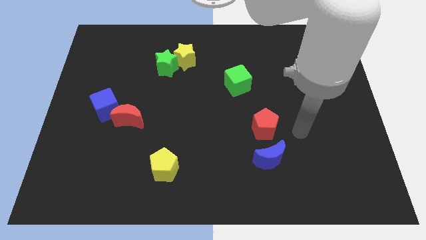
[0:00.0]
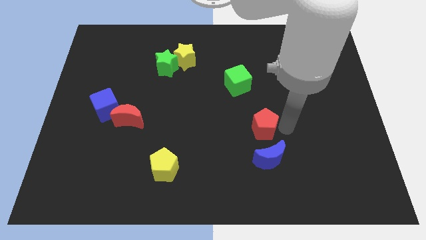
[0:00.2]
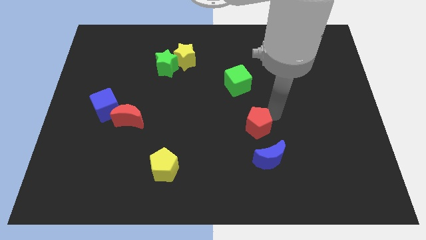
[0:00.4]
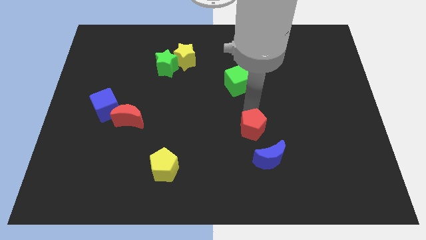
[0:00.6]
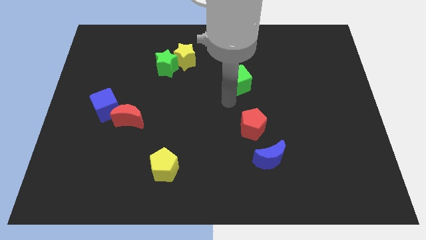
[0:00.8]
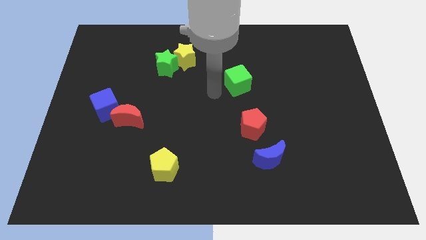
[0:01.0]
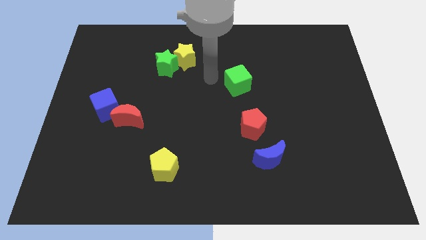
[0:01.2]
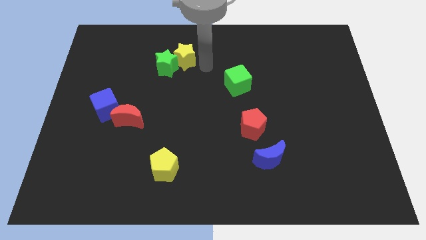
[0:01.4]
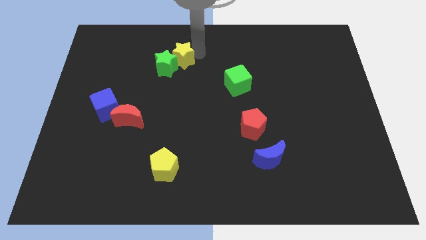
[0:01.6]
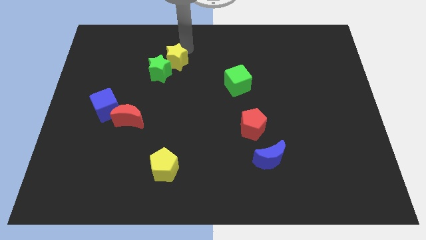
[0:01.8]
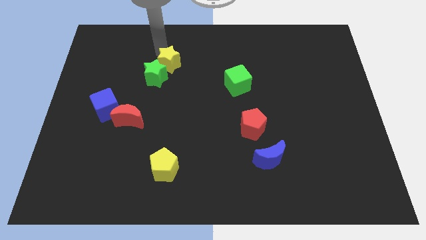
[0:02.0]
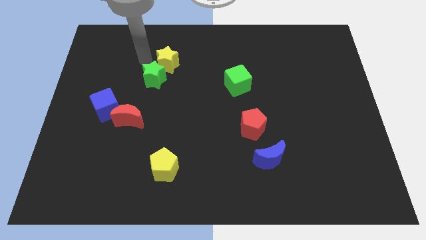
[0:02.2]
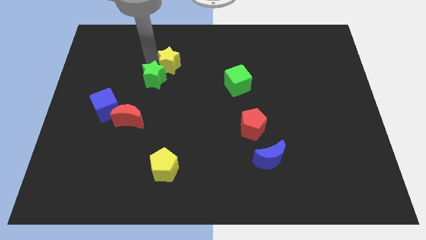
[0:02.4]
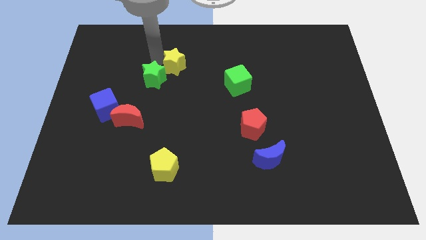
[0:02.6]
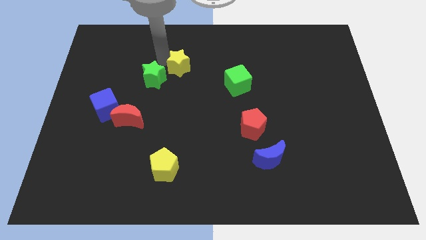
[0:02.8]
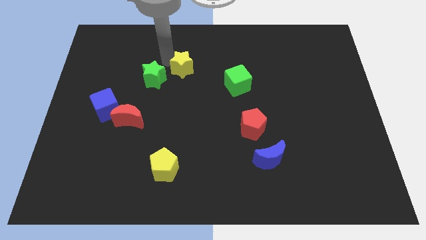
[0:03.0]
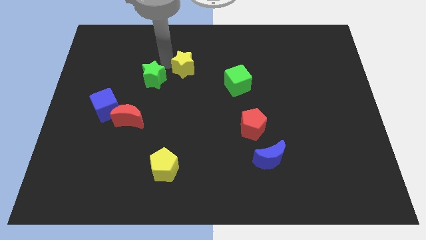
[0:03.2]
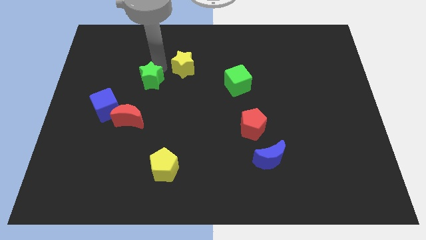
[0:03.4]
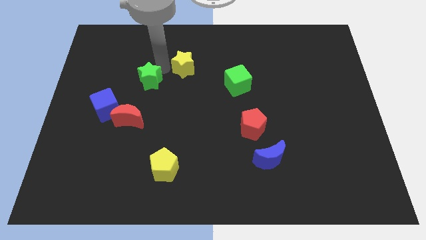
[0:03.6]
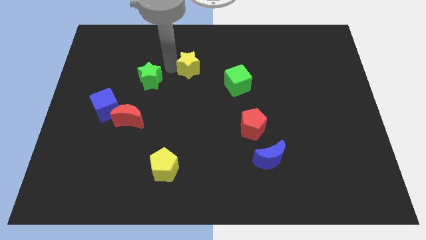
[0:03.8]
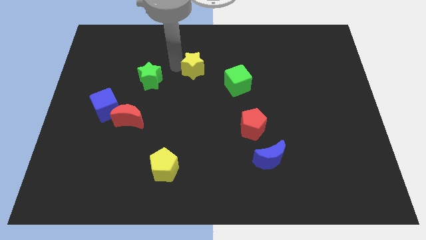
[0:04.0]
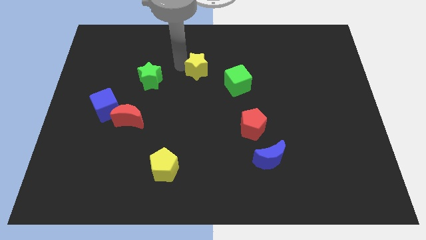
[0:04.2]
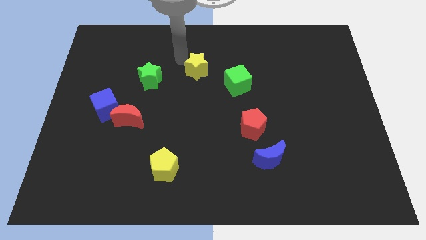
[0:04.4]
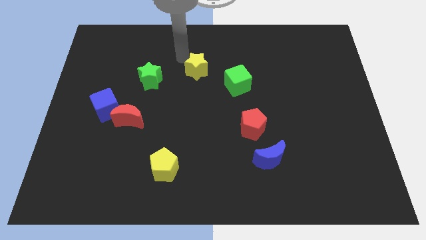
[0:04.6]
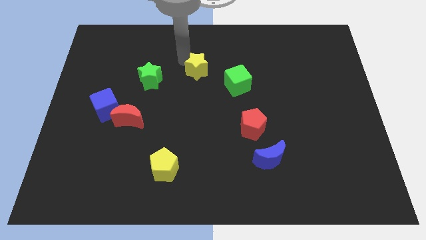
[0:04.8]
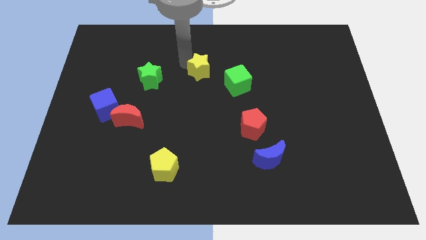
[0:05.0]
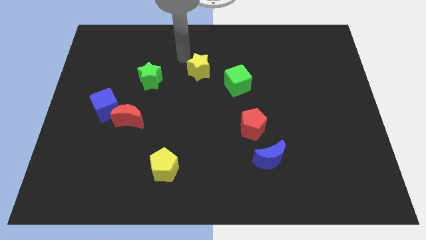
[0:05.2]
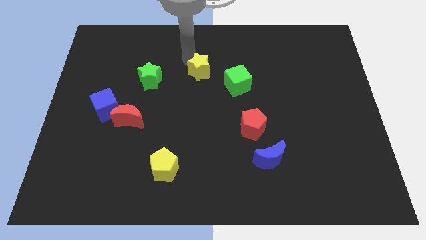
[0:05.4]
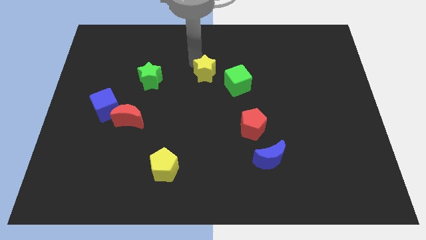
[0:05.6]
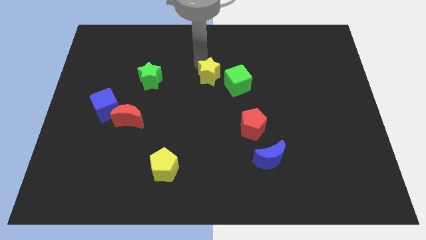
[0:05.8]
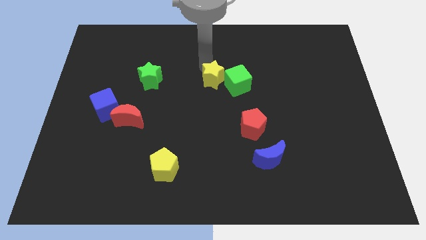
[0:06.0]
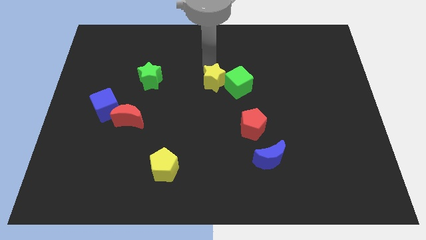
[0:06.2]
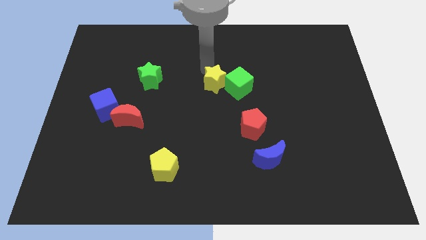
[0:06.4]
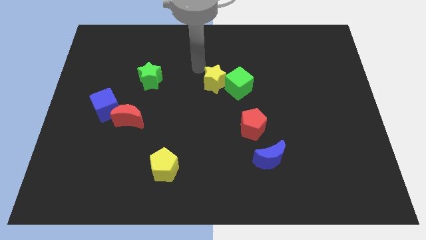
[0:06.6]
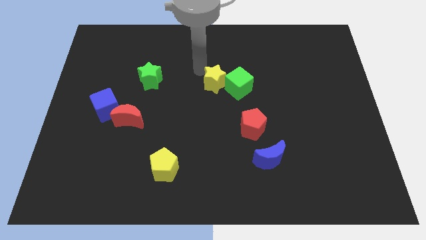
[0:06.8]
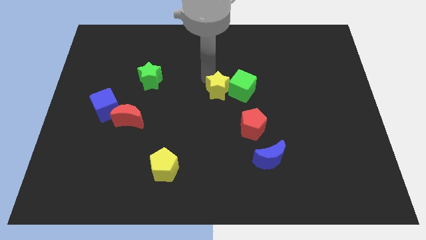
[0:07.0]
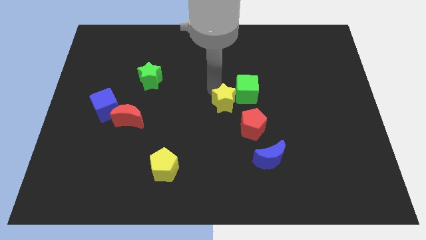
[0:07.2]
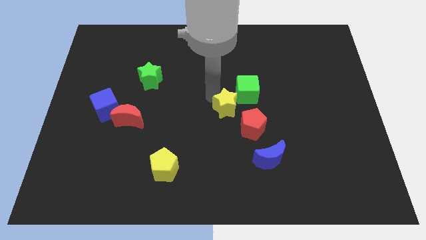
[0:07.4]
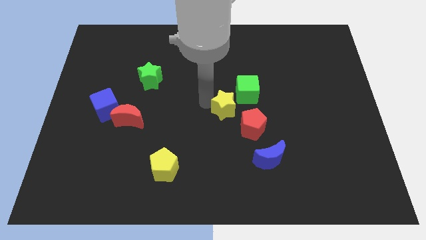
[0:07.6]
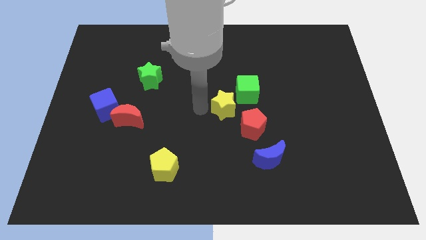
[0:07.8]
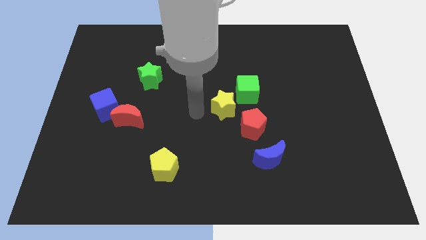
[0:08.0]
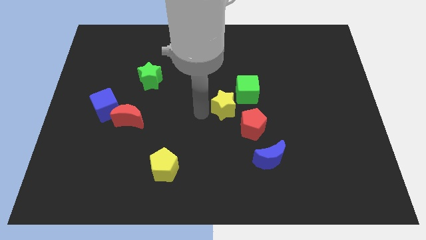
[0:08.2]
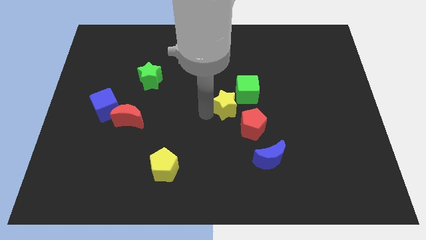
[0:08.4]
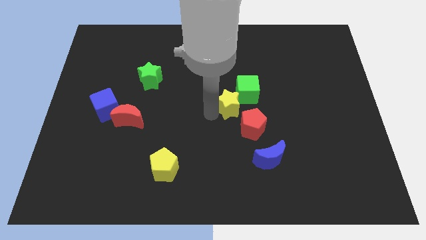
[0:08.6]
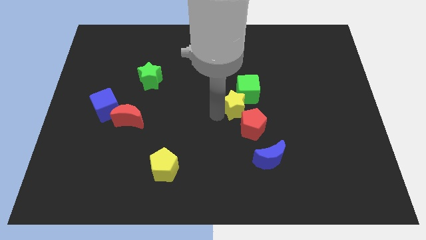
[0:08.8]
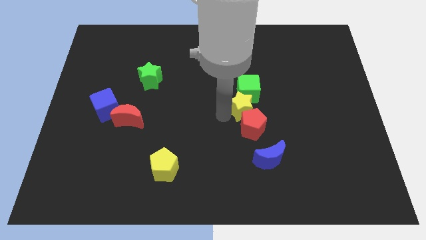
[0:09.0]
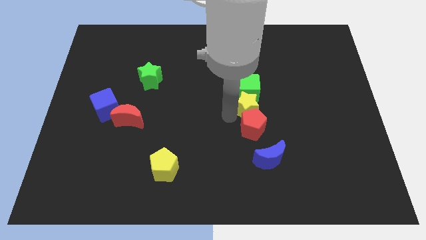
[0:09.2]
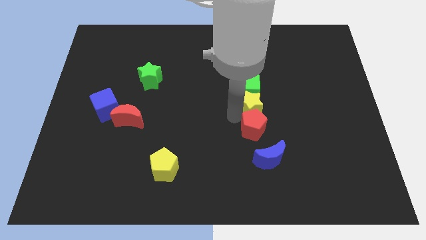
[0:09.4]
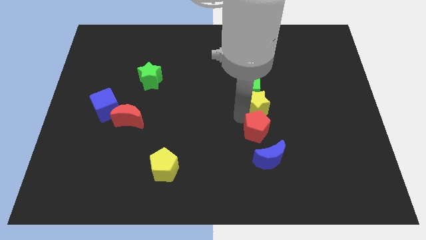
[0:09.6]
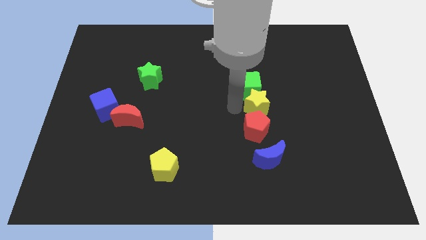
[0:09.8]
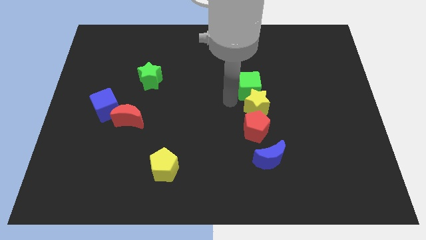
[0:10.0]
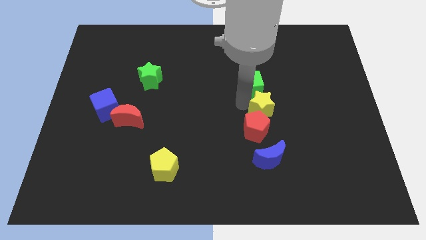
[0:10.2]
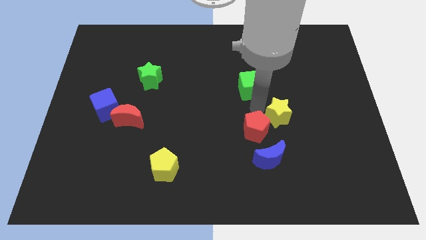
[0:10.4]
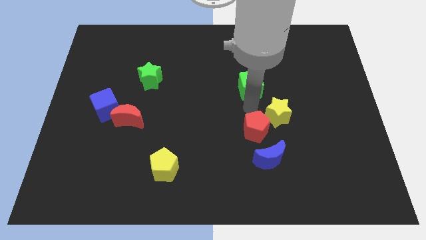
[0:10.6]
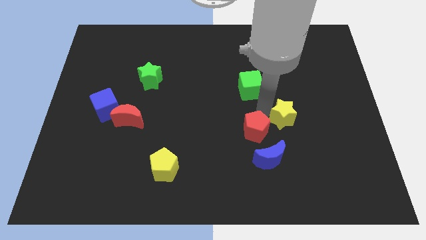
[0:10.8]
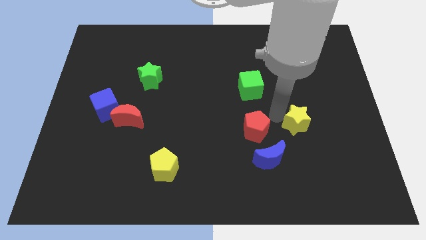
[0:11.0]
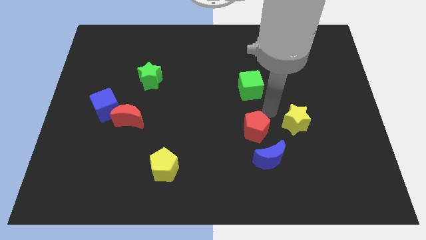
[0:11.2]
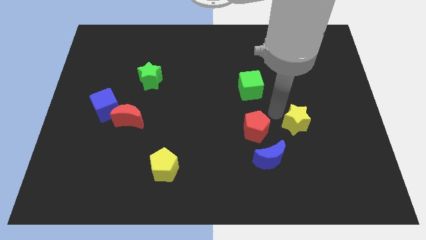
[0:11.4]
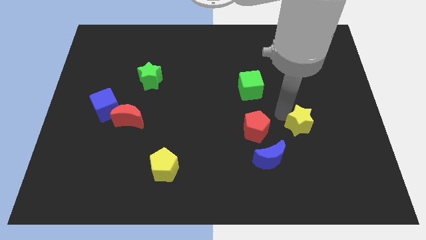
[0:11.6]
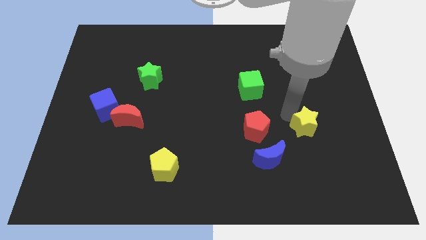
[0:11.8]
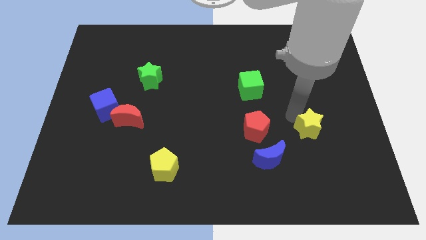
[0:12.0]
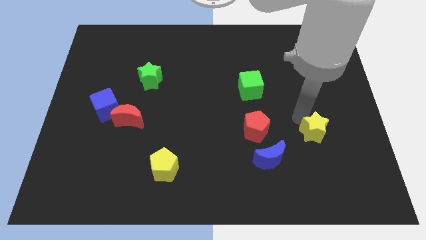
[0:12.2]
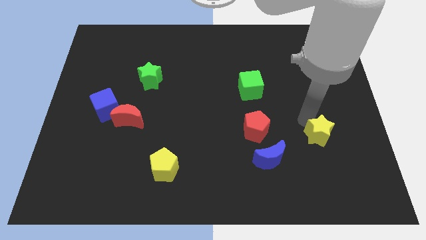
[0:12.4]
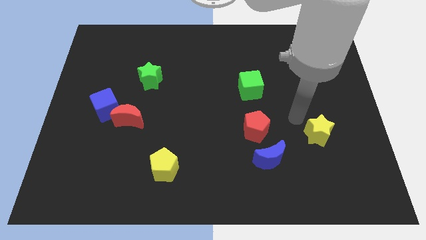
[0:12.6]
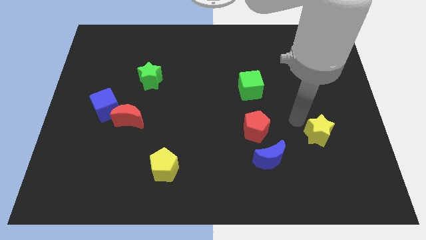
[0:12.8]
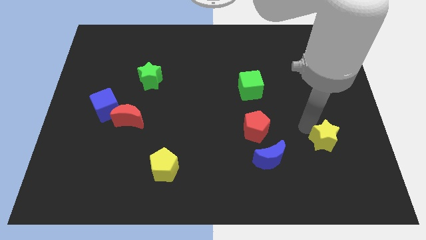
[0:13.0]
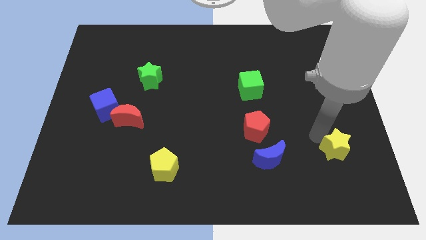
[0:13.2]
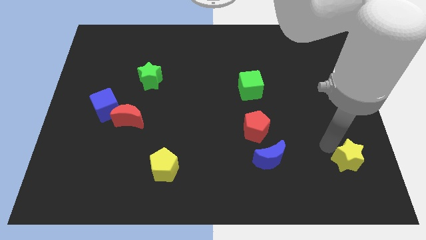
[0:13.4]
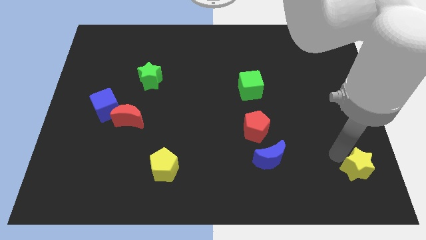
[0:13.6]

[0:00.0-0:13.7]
put the yellow star to the bottom right

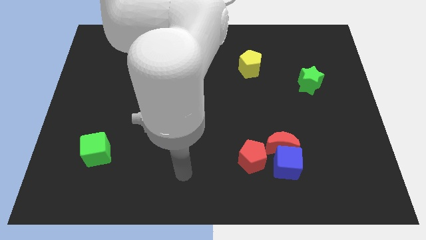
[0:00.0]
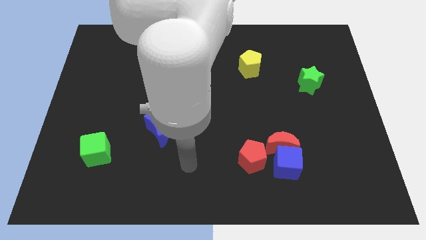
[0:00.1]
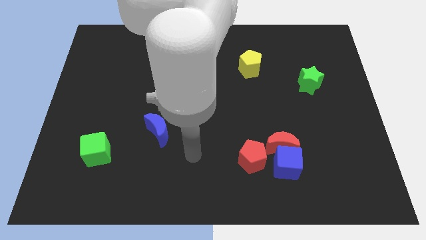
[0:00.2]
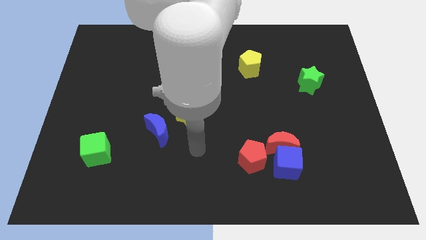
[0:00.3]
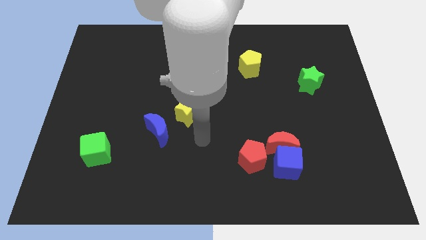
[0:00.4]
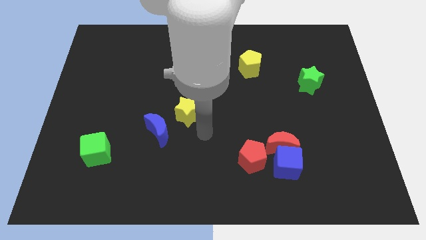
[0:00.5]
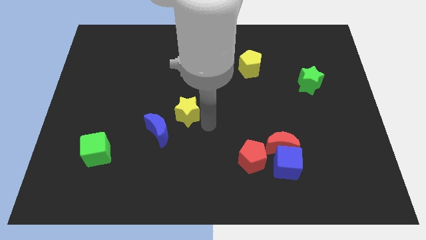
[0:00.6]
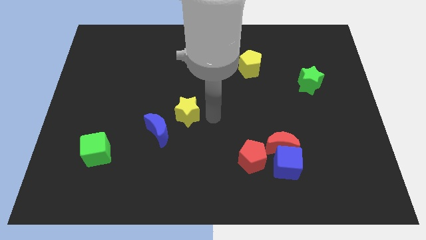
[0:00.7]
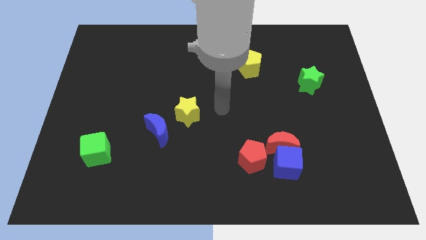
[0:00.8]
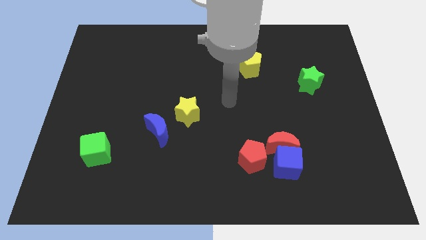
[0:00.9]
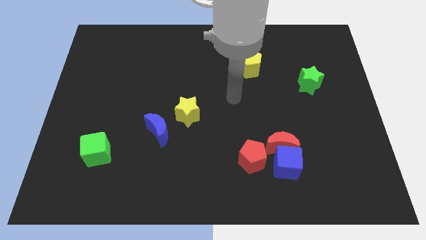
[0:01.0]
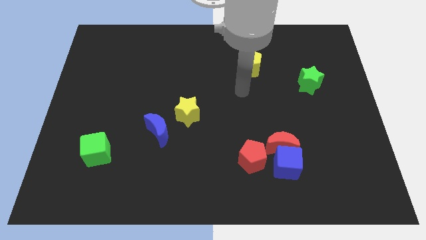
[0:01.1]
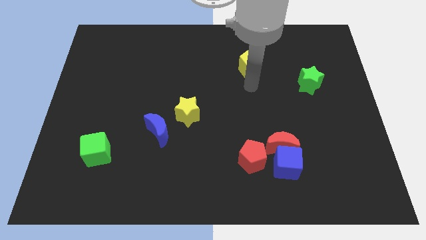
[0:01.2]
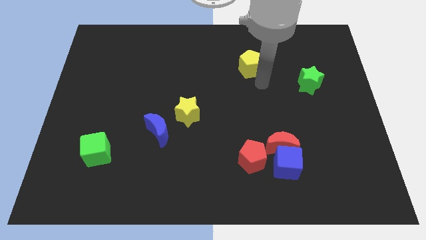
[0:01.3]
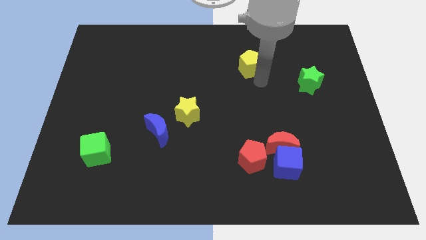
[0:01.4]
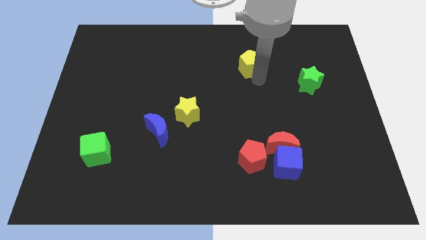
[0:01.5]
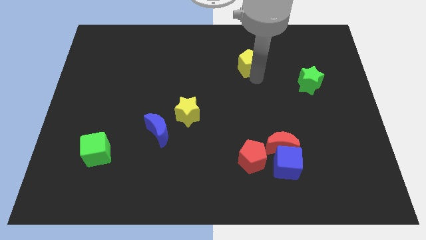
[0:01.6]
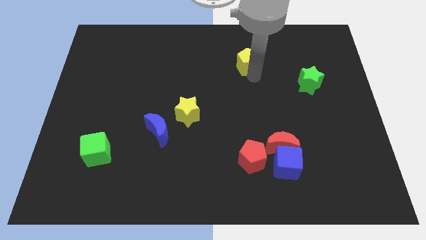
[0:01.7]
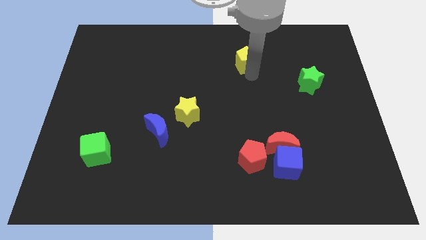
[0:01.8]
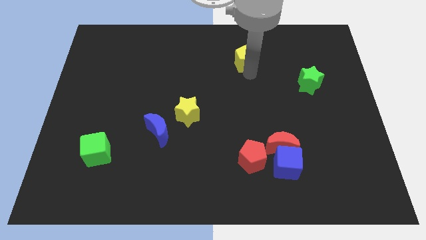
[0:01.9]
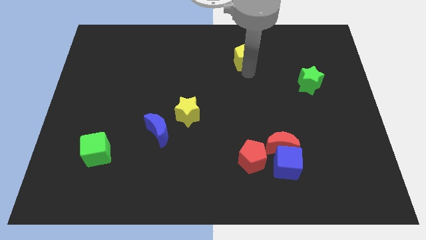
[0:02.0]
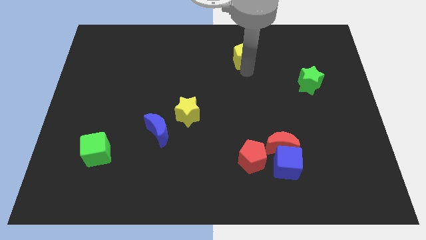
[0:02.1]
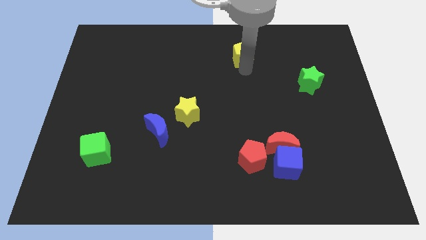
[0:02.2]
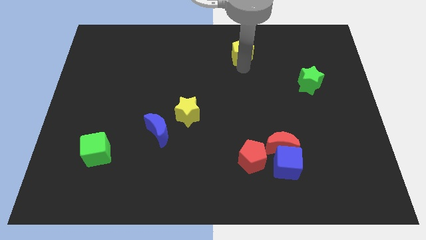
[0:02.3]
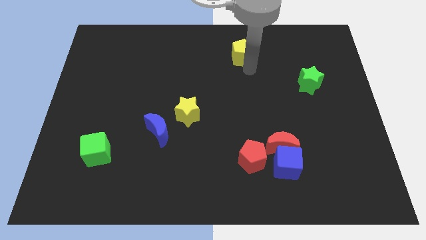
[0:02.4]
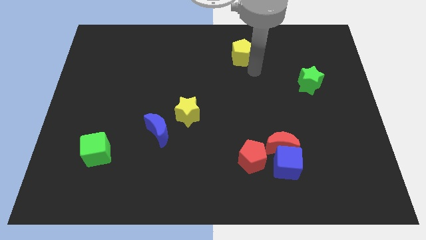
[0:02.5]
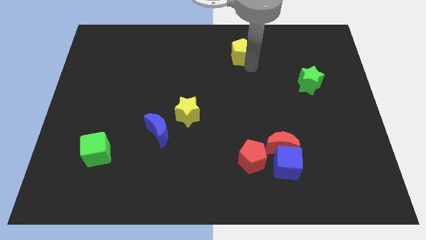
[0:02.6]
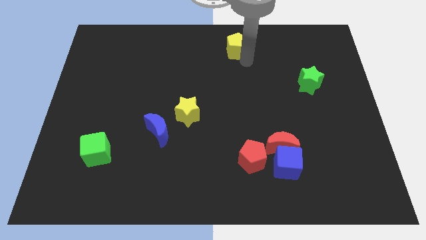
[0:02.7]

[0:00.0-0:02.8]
slide the yellow pentagon to the top
